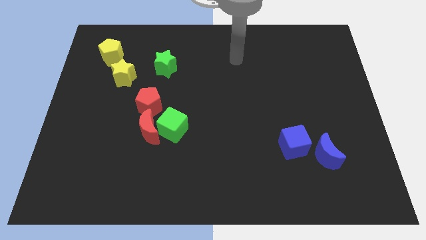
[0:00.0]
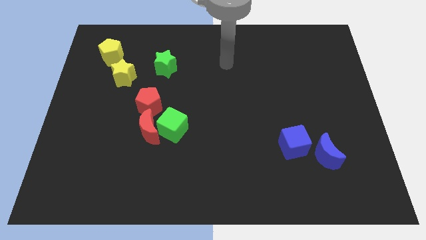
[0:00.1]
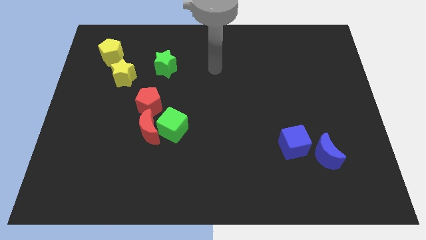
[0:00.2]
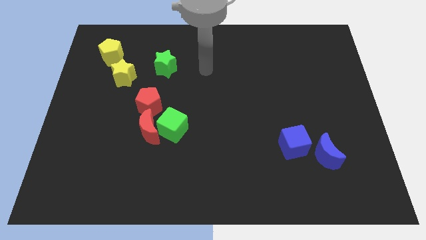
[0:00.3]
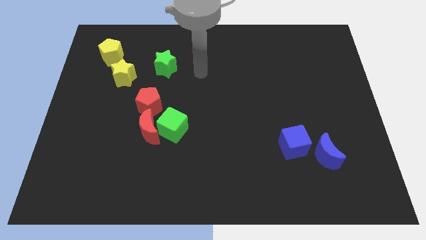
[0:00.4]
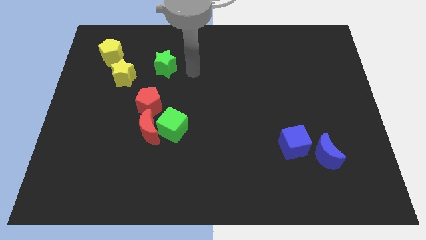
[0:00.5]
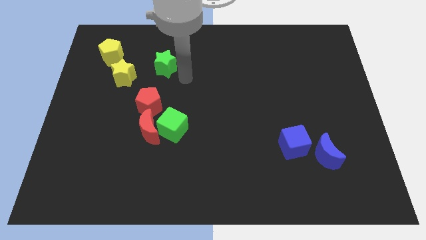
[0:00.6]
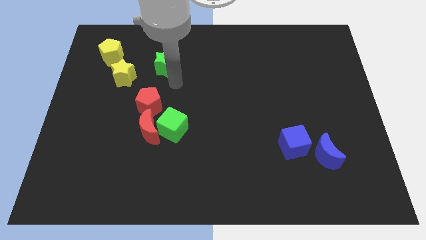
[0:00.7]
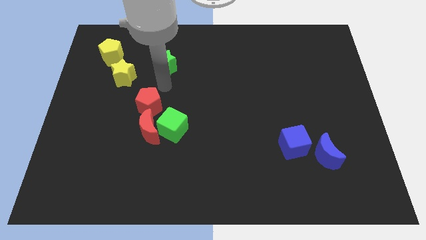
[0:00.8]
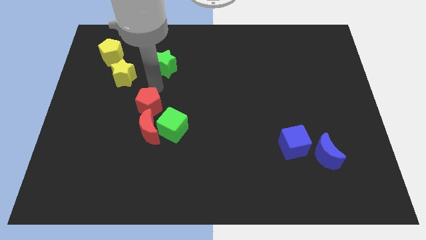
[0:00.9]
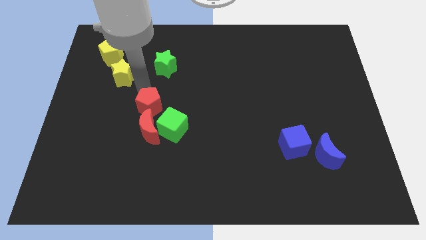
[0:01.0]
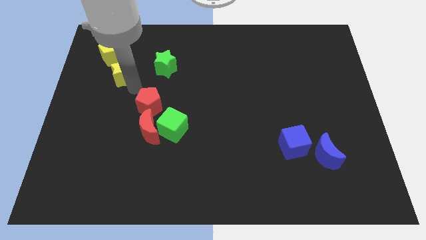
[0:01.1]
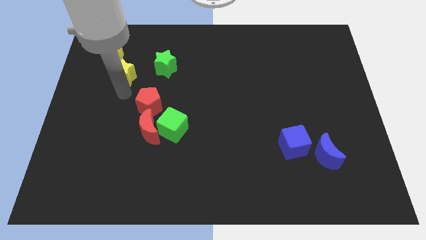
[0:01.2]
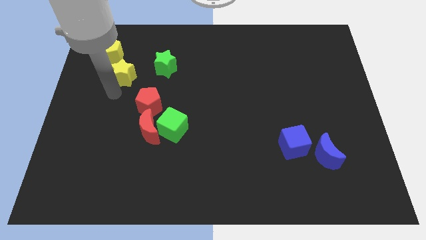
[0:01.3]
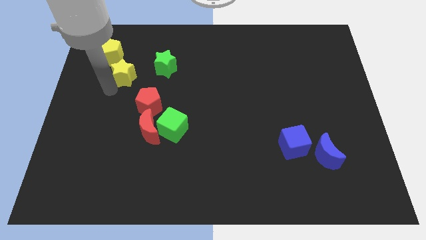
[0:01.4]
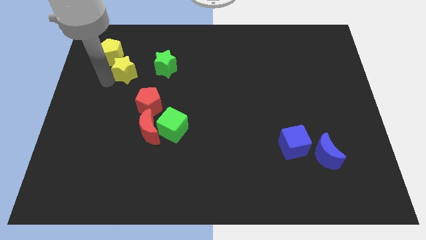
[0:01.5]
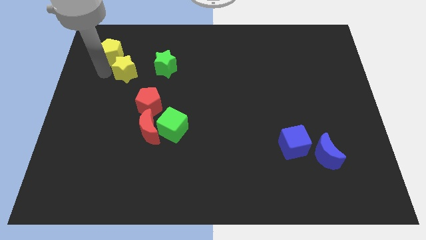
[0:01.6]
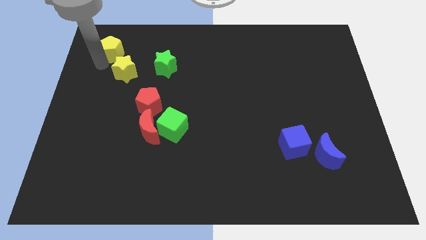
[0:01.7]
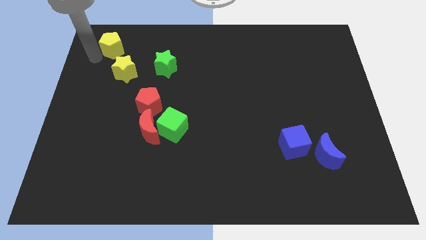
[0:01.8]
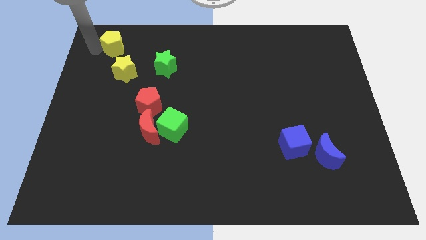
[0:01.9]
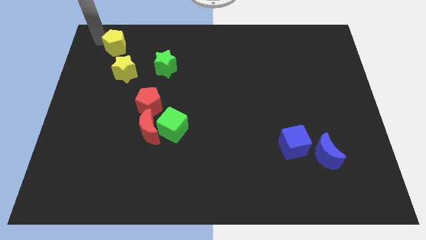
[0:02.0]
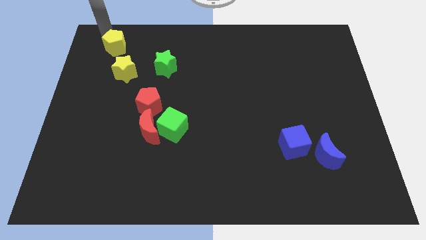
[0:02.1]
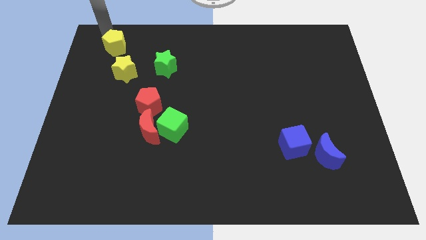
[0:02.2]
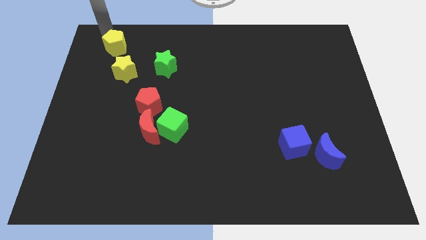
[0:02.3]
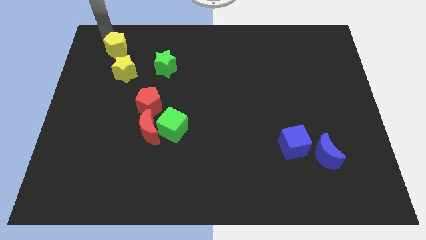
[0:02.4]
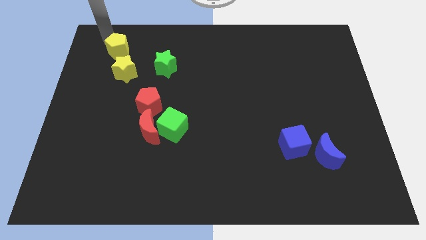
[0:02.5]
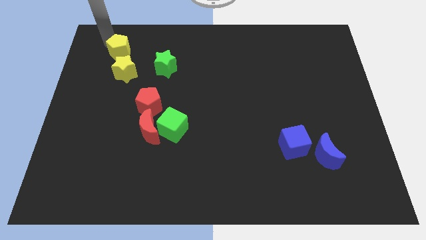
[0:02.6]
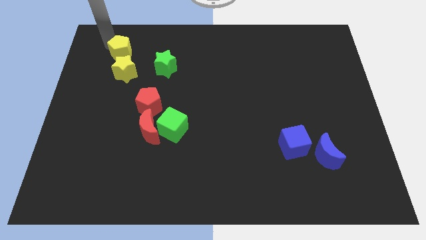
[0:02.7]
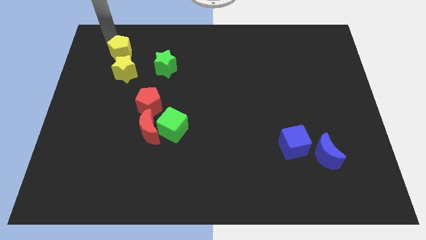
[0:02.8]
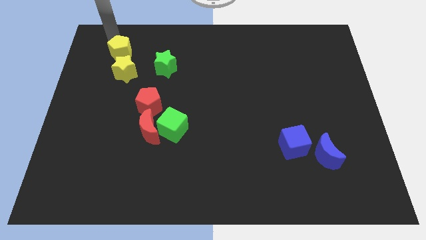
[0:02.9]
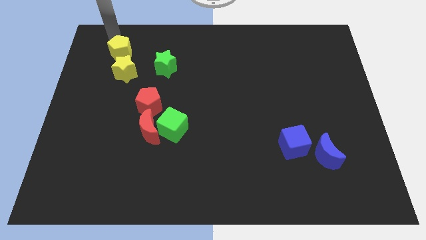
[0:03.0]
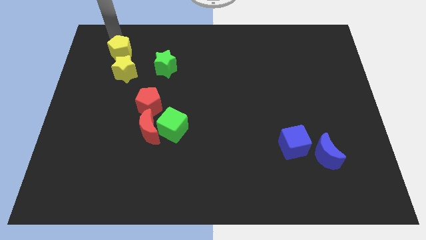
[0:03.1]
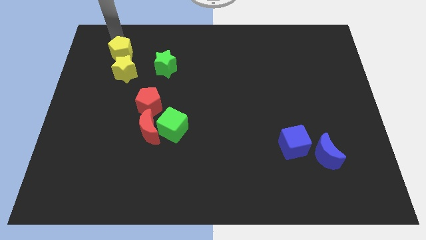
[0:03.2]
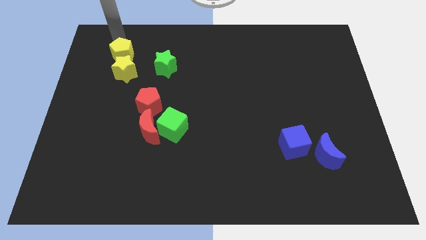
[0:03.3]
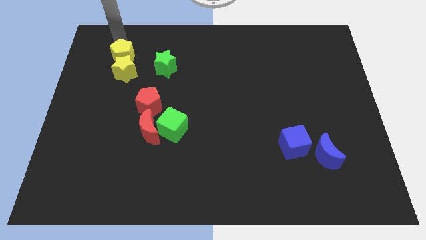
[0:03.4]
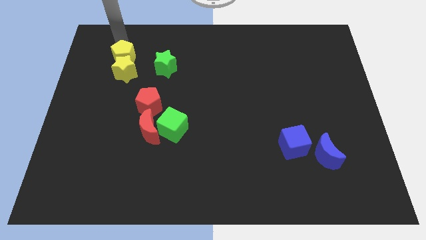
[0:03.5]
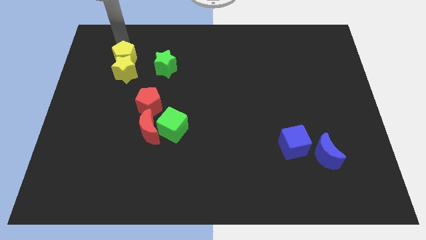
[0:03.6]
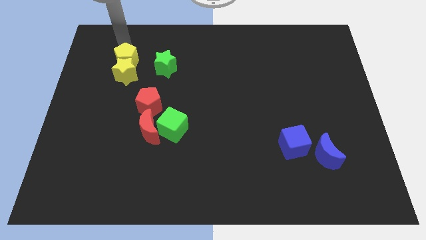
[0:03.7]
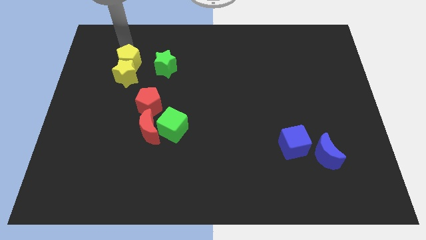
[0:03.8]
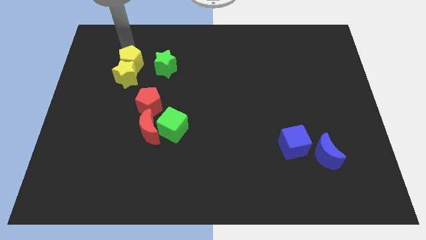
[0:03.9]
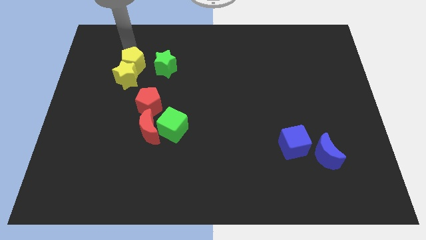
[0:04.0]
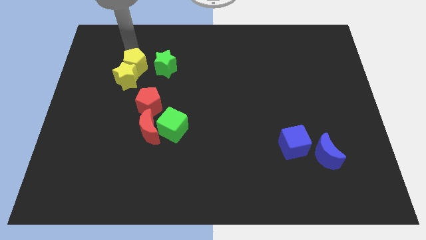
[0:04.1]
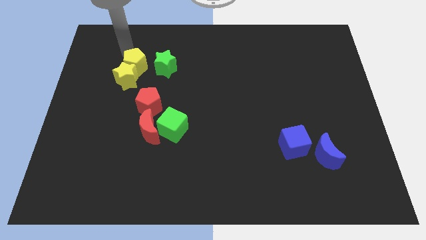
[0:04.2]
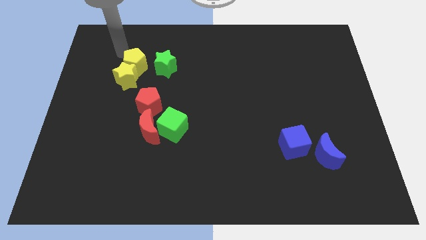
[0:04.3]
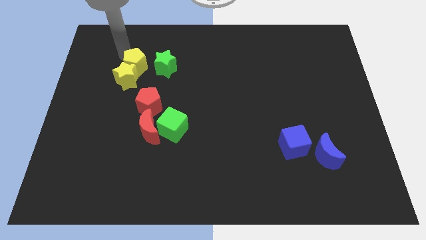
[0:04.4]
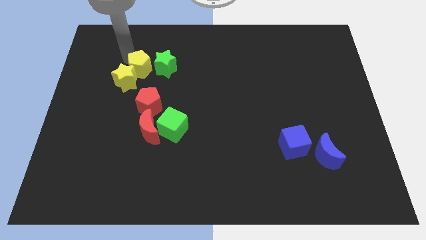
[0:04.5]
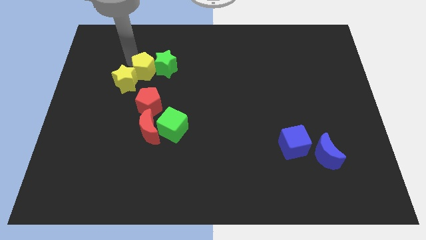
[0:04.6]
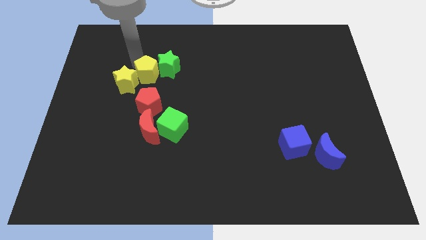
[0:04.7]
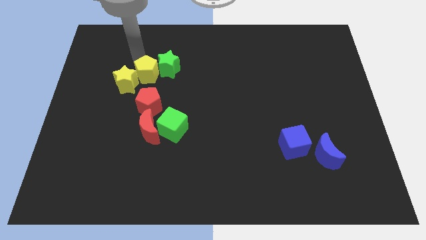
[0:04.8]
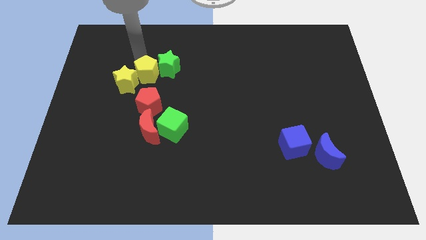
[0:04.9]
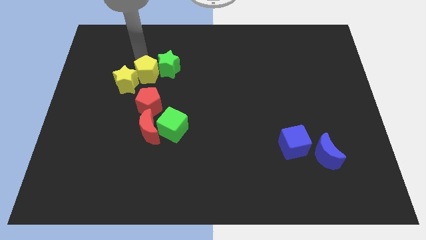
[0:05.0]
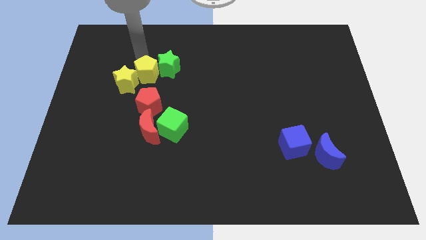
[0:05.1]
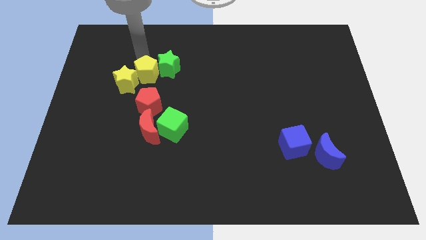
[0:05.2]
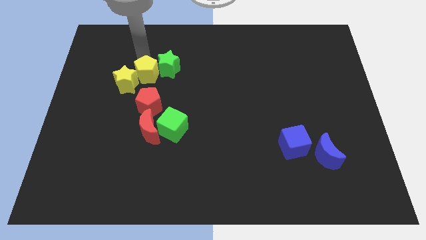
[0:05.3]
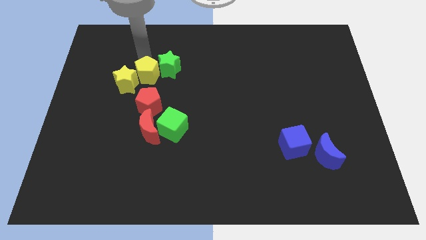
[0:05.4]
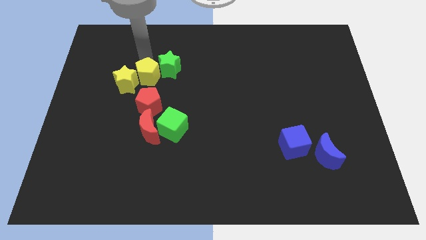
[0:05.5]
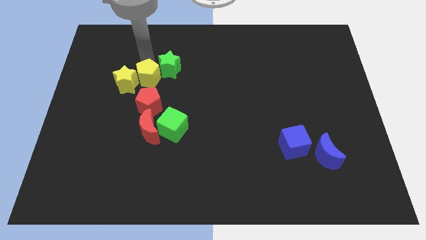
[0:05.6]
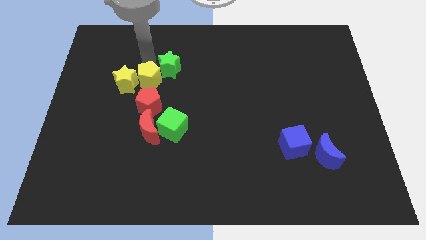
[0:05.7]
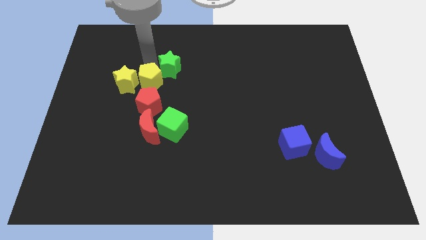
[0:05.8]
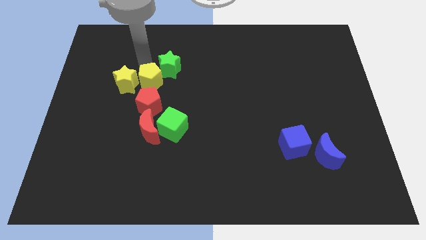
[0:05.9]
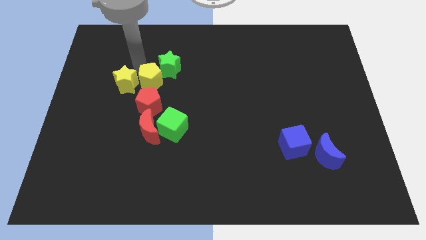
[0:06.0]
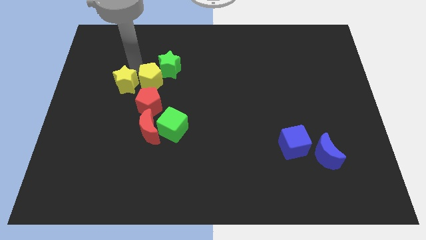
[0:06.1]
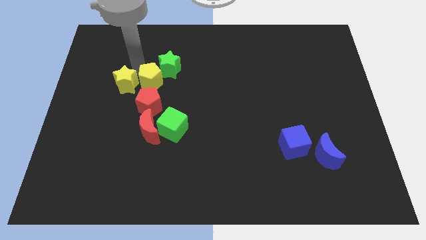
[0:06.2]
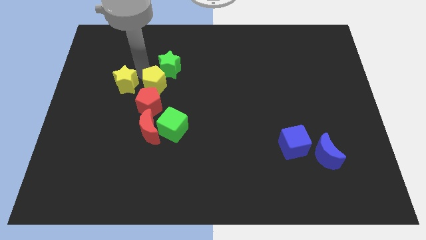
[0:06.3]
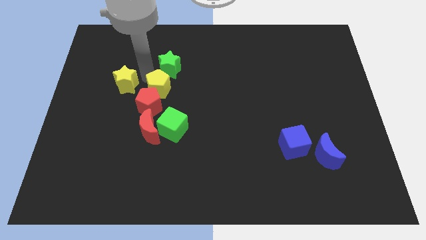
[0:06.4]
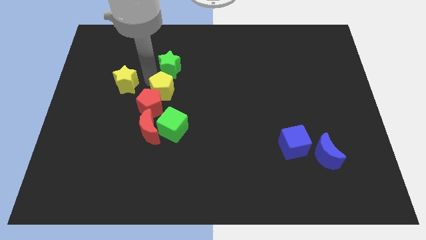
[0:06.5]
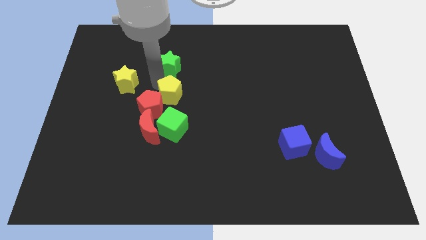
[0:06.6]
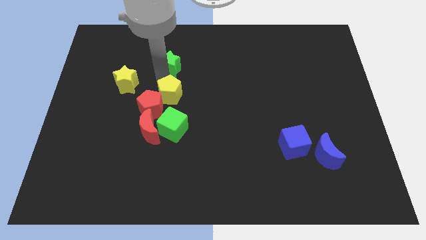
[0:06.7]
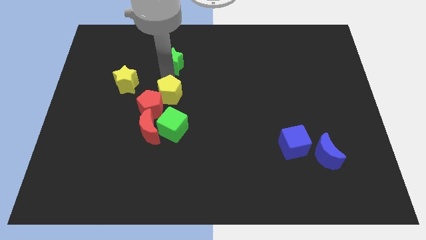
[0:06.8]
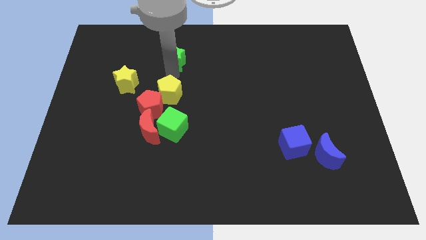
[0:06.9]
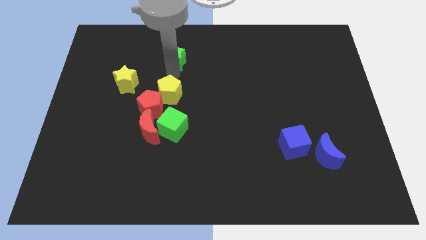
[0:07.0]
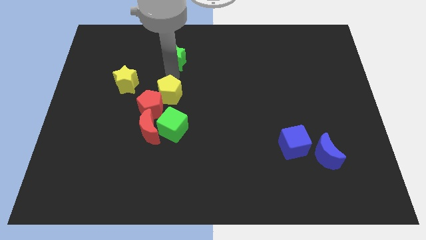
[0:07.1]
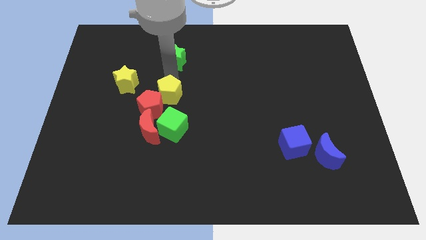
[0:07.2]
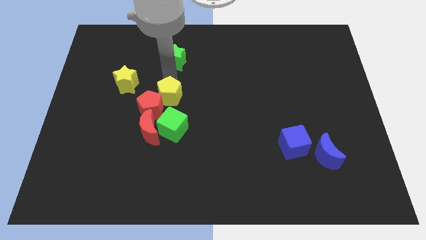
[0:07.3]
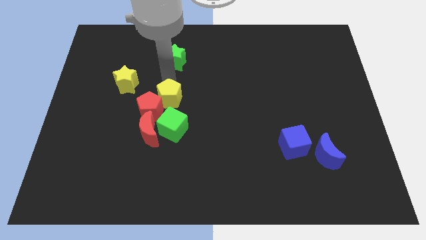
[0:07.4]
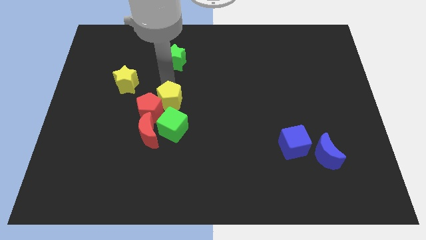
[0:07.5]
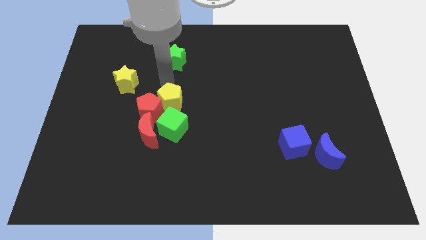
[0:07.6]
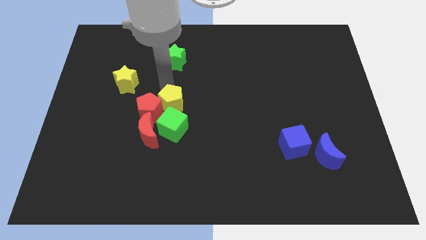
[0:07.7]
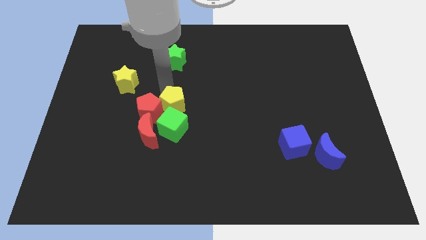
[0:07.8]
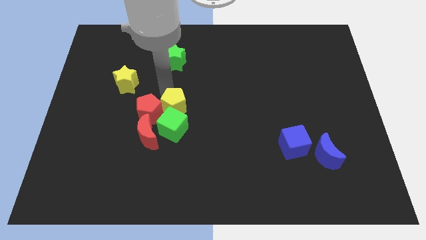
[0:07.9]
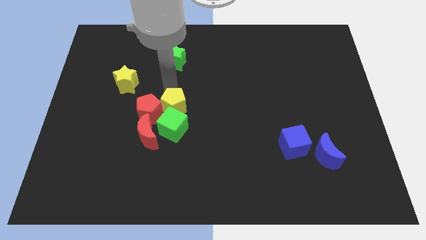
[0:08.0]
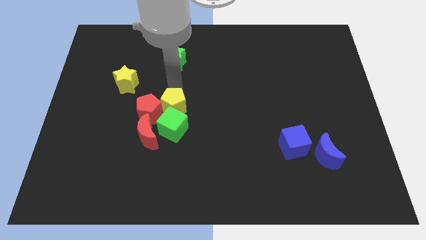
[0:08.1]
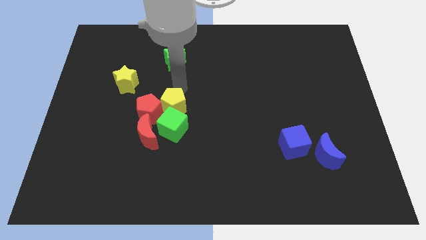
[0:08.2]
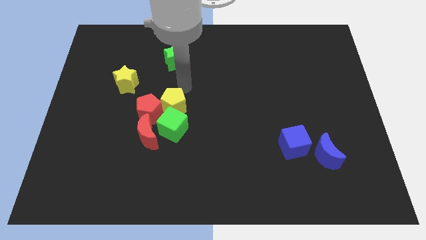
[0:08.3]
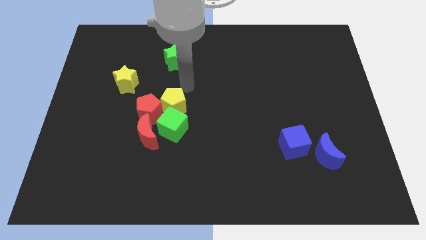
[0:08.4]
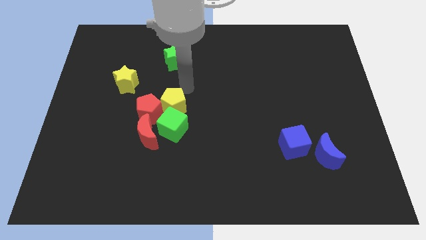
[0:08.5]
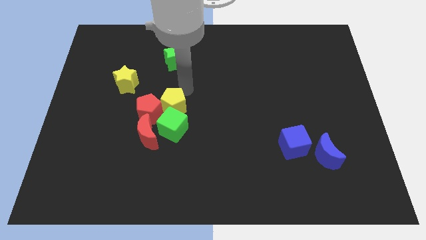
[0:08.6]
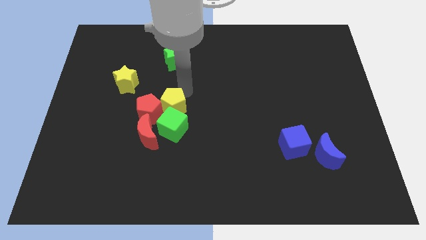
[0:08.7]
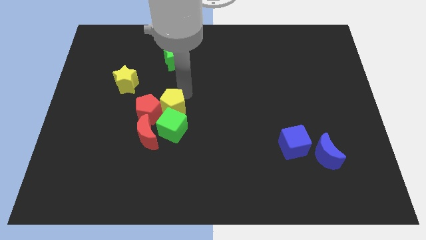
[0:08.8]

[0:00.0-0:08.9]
slide the yellow pentagon towards the green cube
